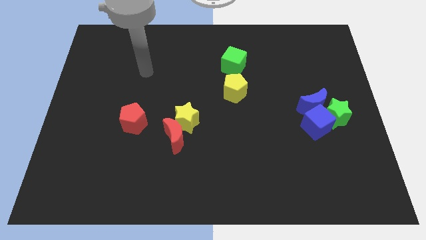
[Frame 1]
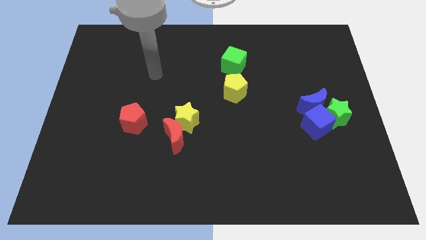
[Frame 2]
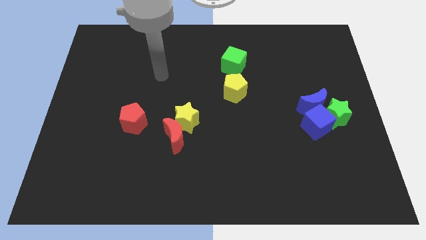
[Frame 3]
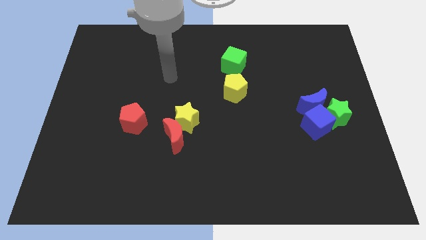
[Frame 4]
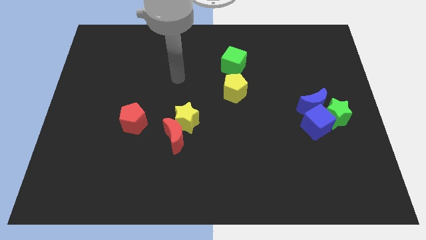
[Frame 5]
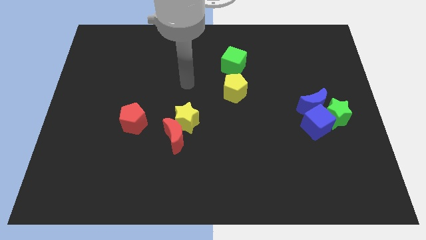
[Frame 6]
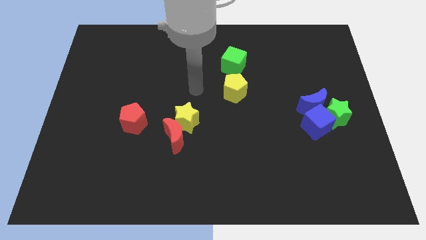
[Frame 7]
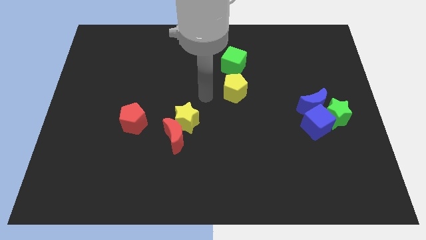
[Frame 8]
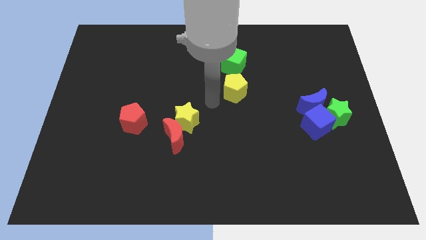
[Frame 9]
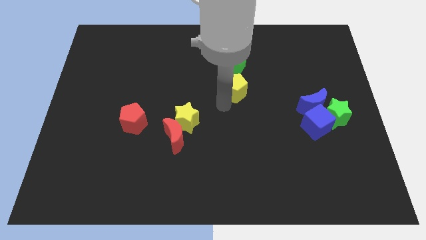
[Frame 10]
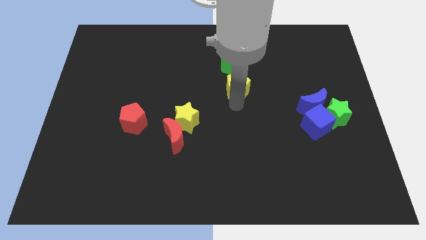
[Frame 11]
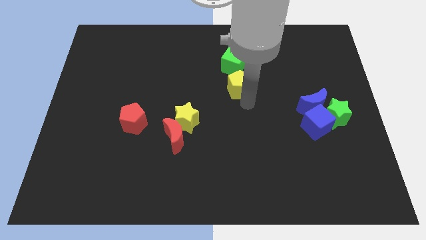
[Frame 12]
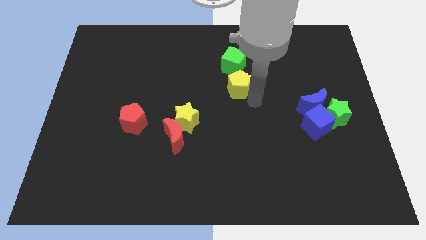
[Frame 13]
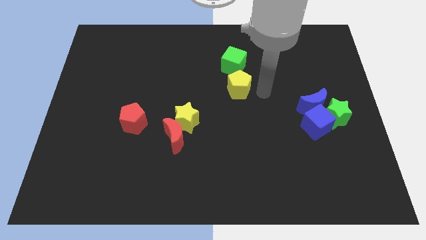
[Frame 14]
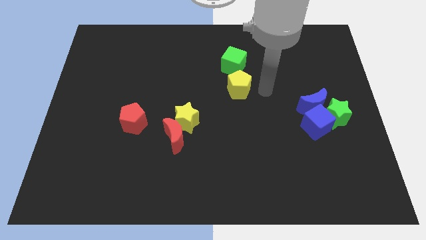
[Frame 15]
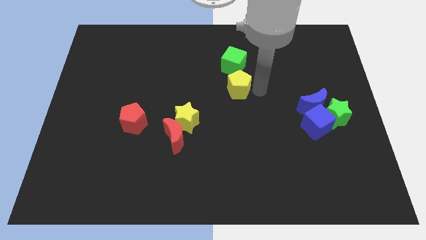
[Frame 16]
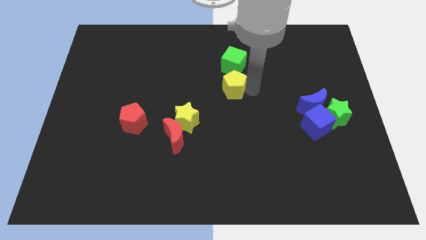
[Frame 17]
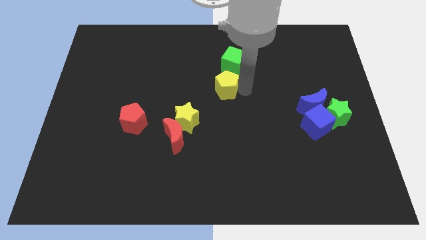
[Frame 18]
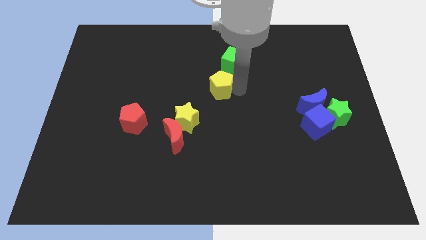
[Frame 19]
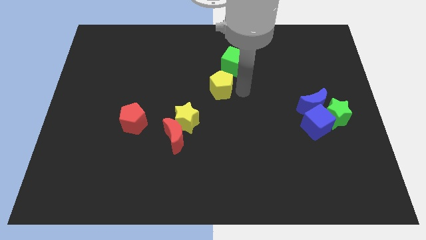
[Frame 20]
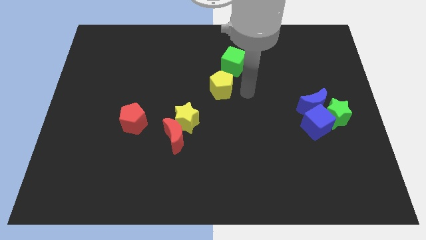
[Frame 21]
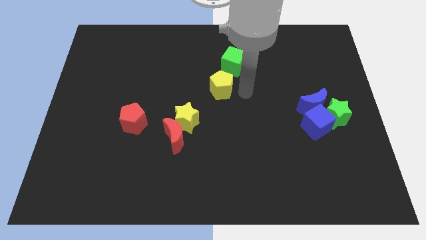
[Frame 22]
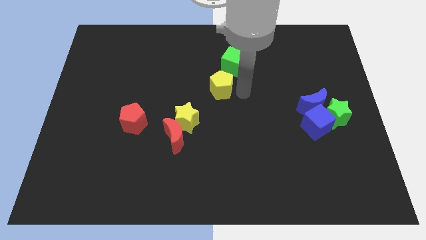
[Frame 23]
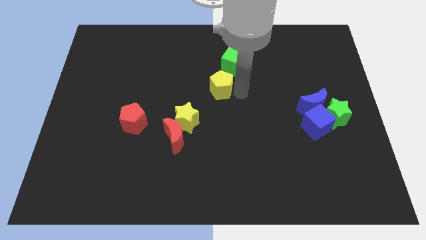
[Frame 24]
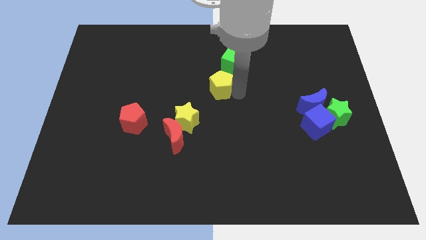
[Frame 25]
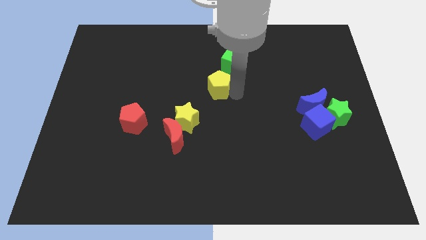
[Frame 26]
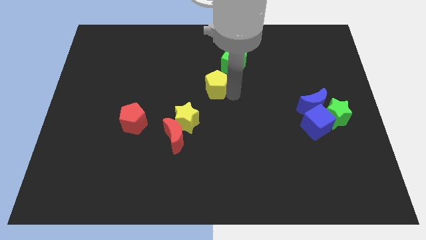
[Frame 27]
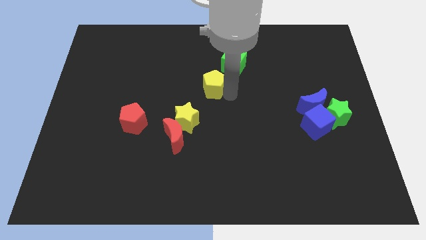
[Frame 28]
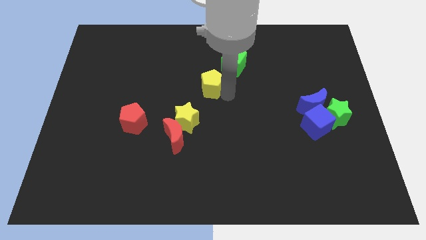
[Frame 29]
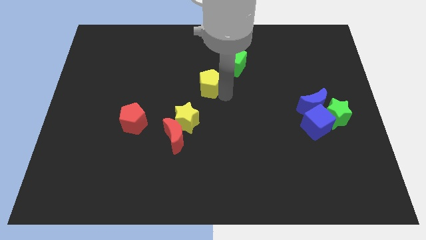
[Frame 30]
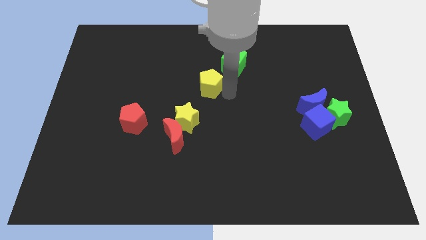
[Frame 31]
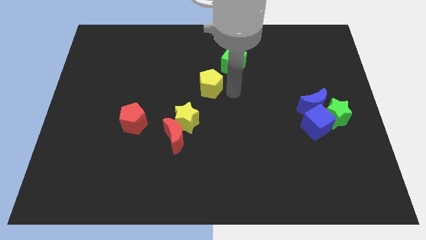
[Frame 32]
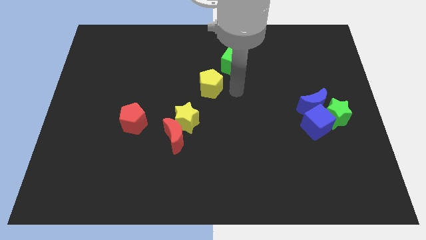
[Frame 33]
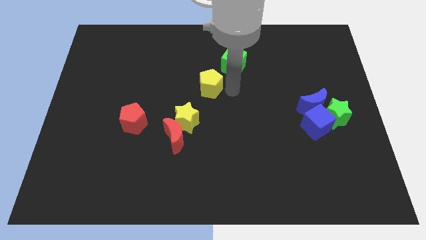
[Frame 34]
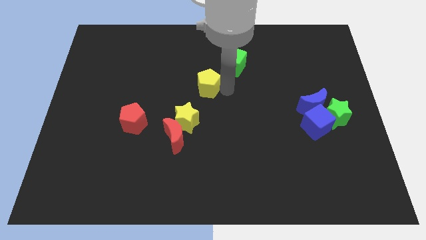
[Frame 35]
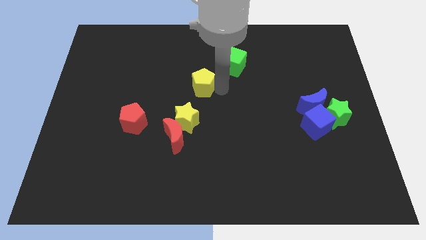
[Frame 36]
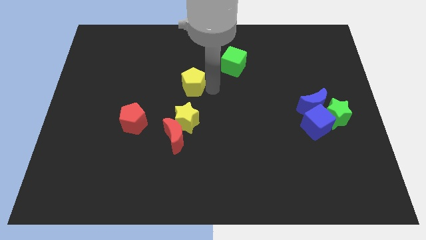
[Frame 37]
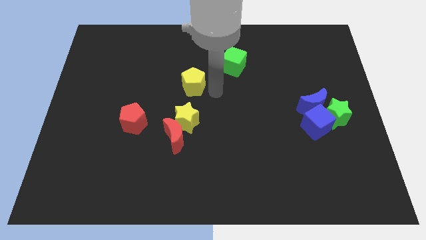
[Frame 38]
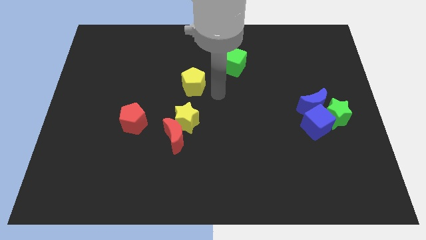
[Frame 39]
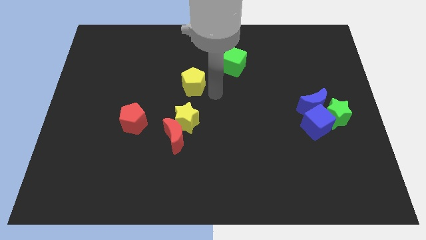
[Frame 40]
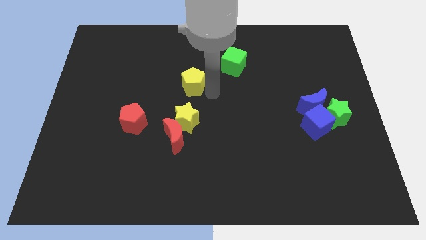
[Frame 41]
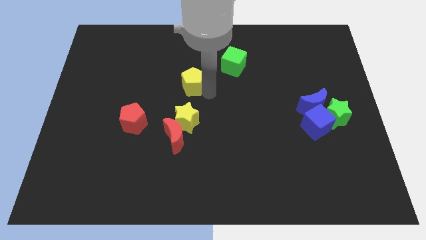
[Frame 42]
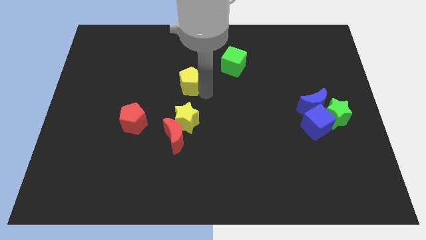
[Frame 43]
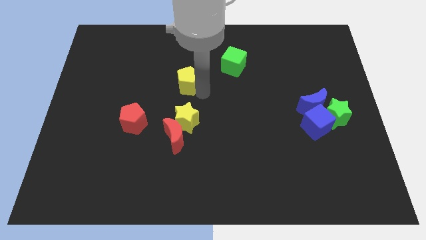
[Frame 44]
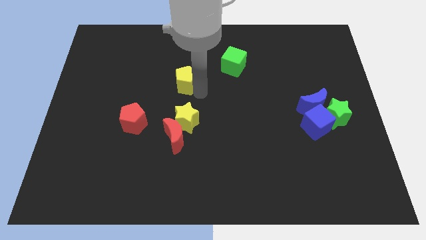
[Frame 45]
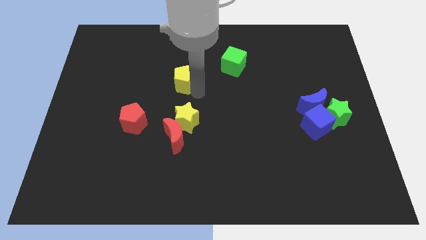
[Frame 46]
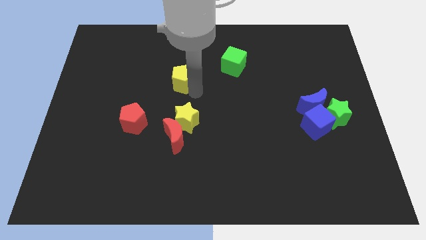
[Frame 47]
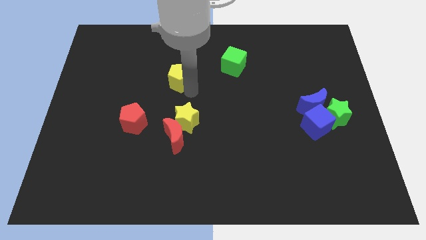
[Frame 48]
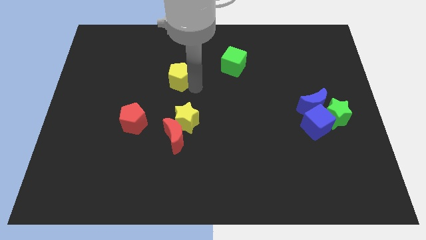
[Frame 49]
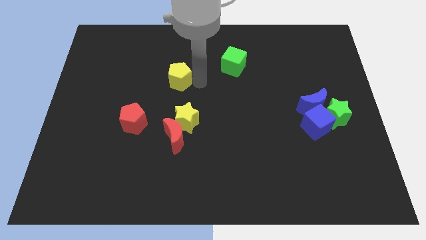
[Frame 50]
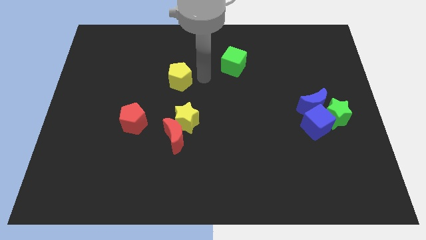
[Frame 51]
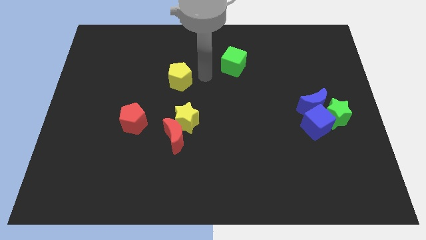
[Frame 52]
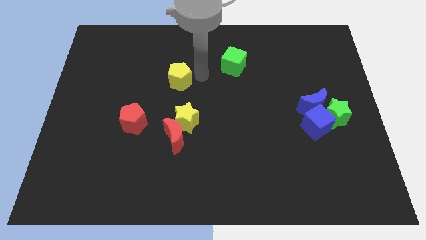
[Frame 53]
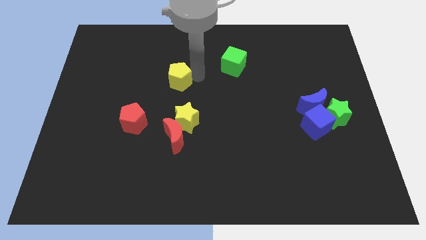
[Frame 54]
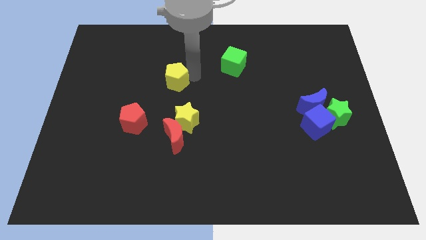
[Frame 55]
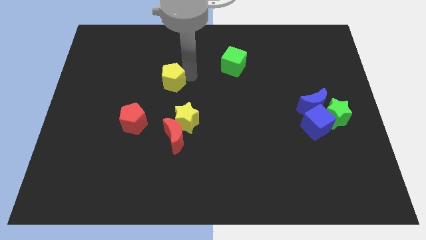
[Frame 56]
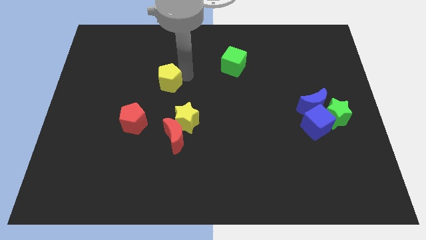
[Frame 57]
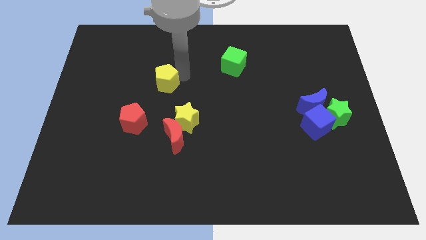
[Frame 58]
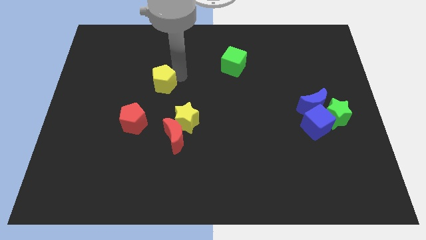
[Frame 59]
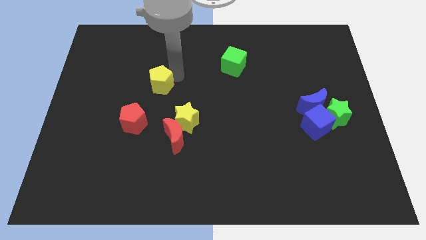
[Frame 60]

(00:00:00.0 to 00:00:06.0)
move the yellow pentagon above the red pentagon

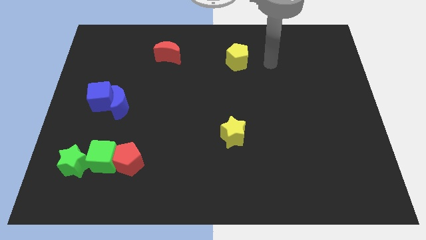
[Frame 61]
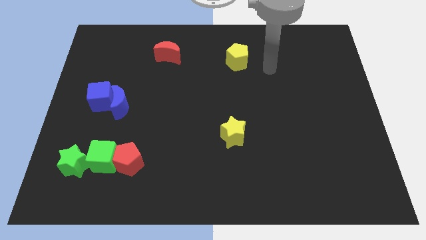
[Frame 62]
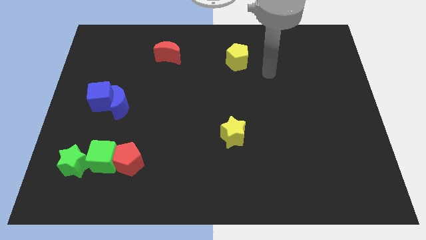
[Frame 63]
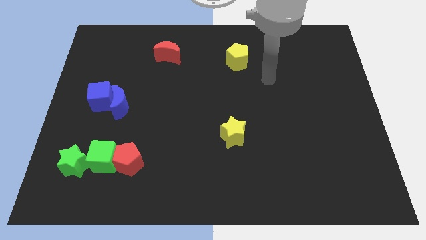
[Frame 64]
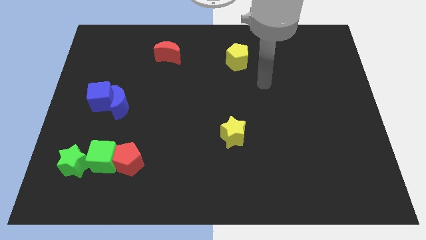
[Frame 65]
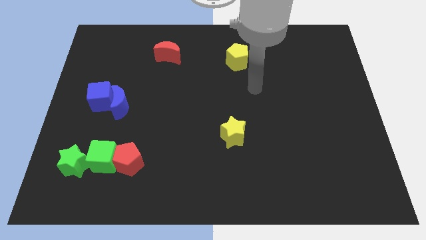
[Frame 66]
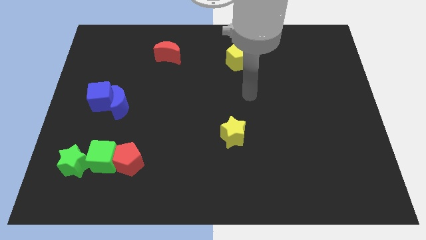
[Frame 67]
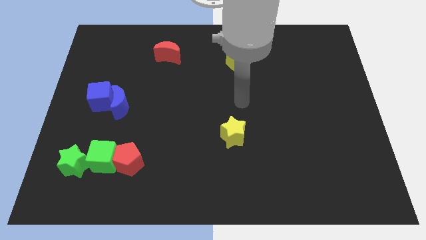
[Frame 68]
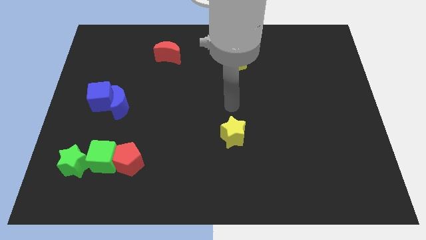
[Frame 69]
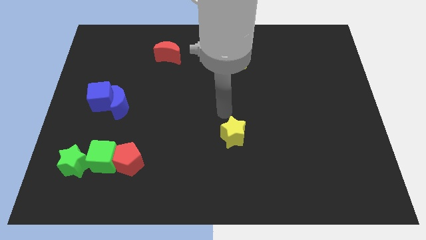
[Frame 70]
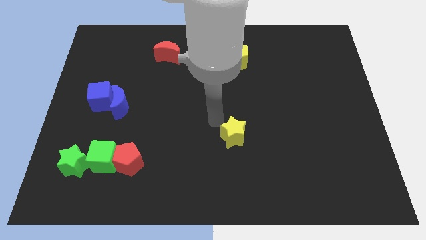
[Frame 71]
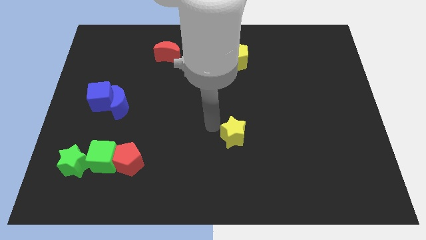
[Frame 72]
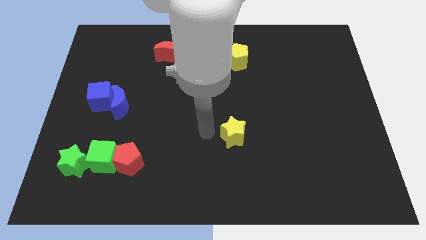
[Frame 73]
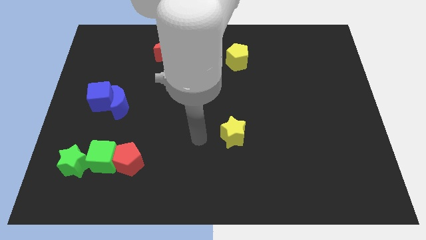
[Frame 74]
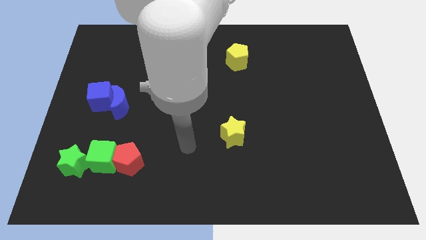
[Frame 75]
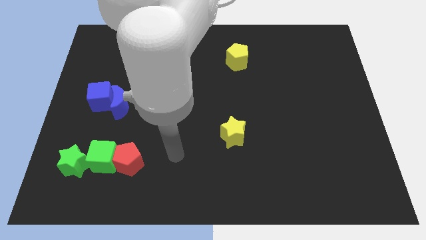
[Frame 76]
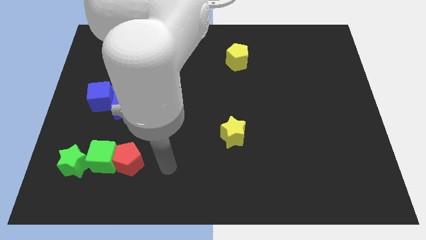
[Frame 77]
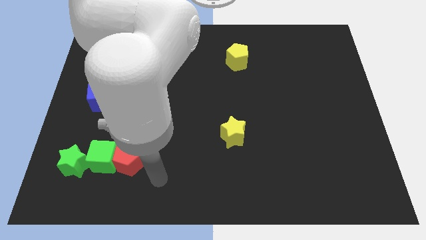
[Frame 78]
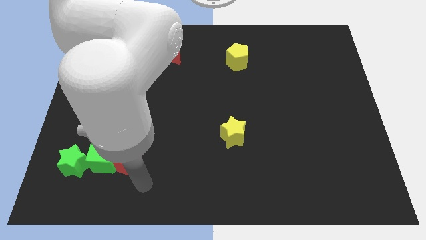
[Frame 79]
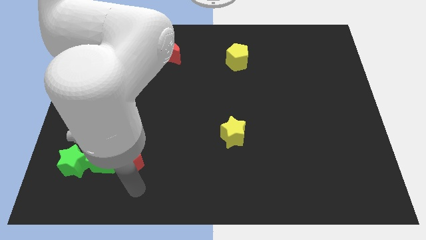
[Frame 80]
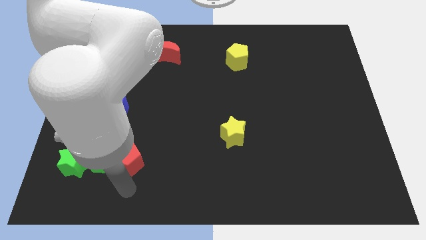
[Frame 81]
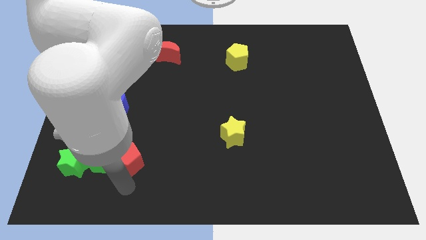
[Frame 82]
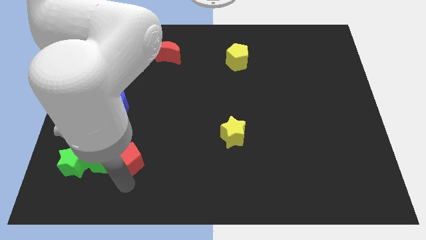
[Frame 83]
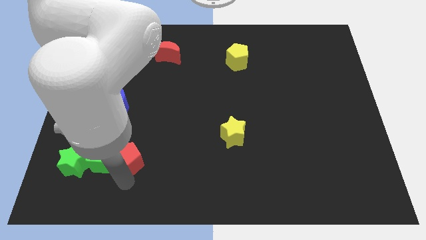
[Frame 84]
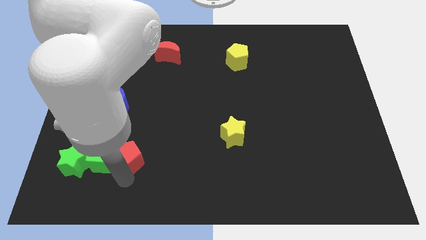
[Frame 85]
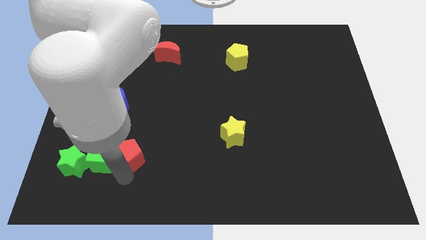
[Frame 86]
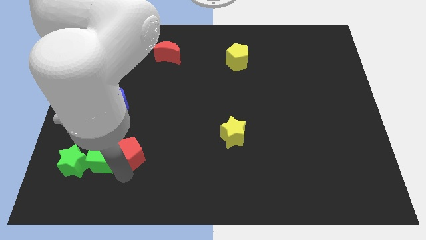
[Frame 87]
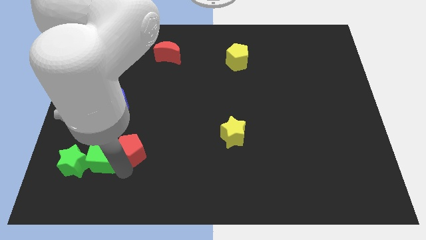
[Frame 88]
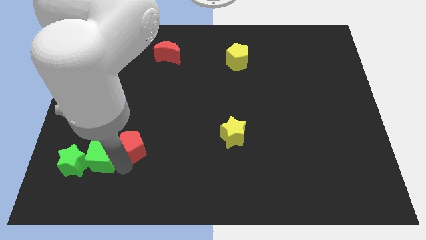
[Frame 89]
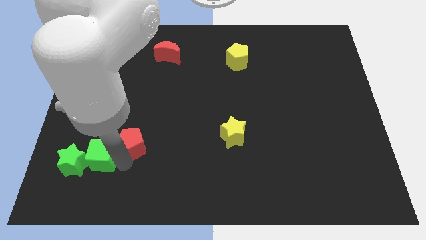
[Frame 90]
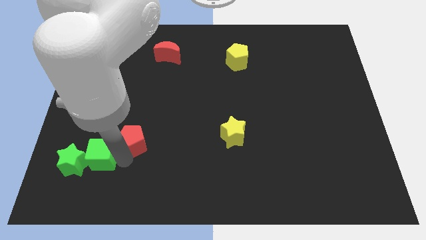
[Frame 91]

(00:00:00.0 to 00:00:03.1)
slide the red pentagon to the bottom right of the blue moon
